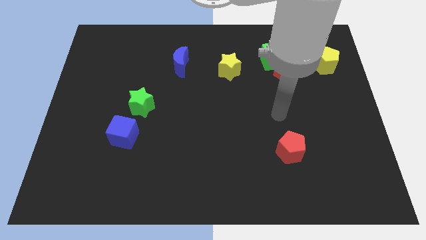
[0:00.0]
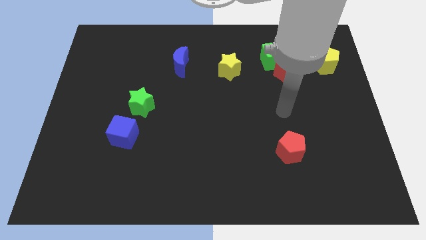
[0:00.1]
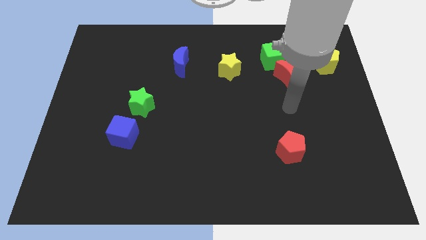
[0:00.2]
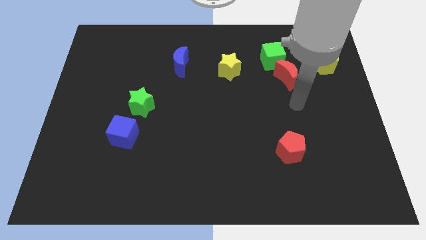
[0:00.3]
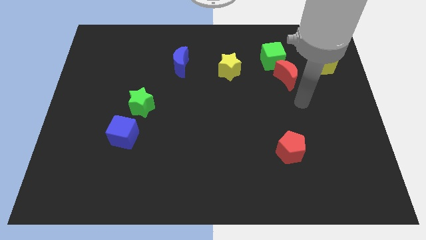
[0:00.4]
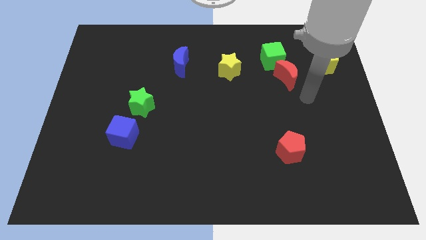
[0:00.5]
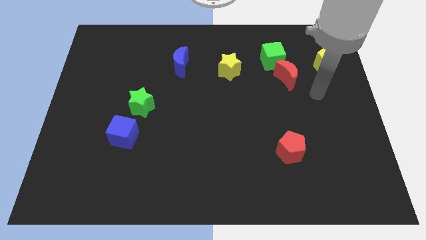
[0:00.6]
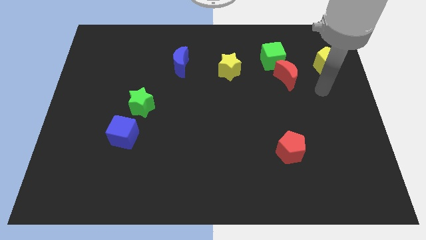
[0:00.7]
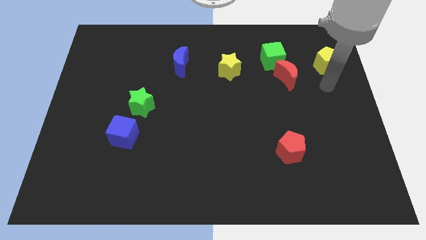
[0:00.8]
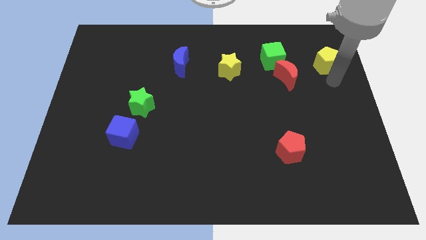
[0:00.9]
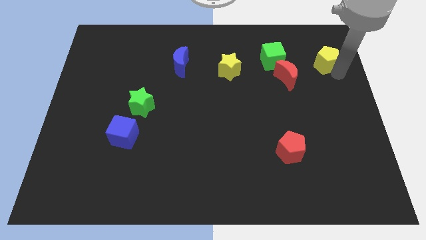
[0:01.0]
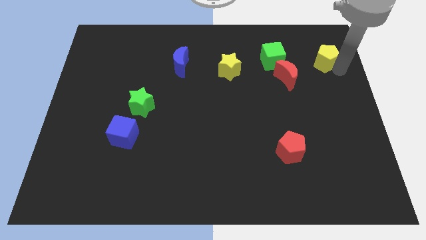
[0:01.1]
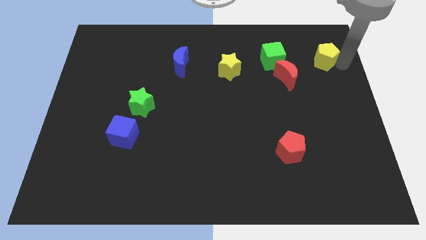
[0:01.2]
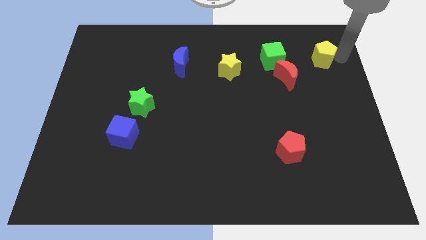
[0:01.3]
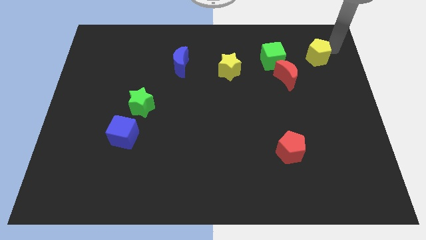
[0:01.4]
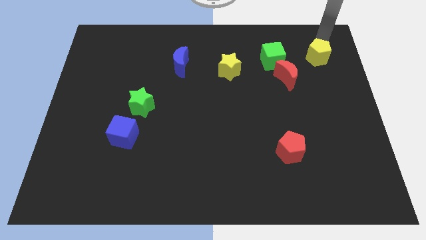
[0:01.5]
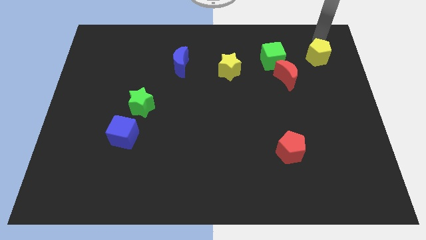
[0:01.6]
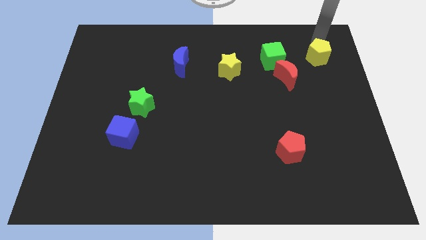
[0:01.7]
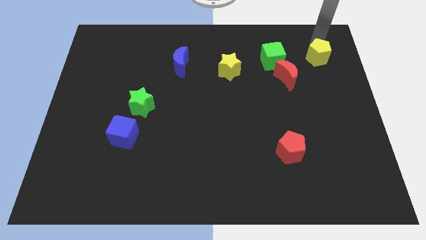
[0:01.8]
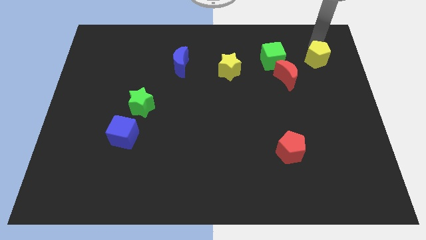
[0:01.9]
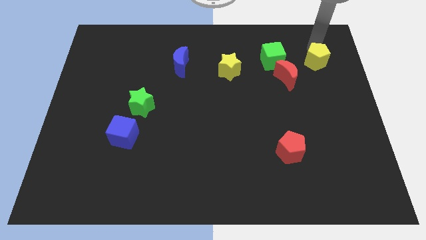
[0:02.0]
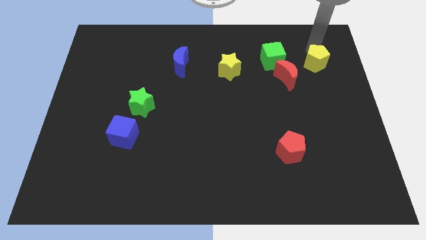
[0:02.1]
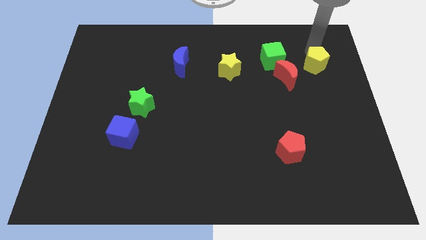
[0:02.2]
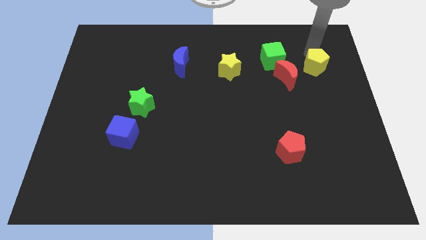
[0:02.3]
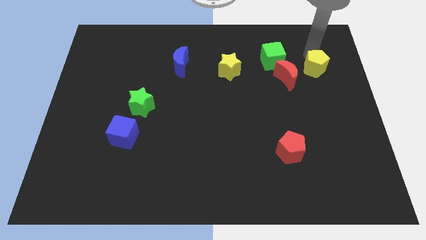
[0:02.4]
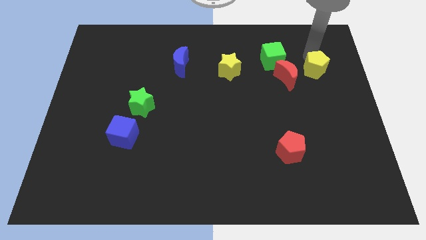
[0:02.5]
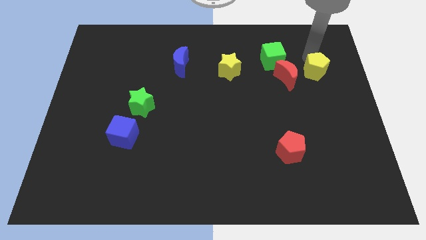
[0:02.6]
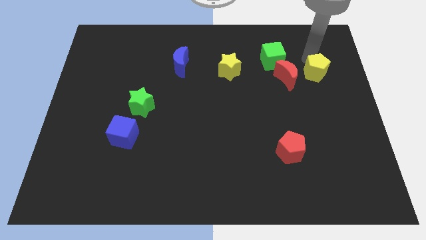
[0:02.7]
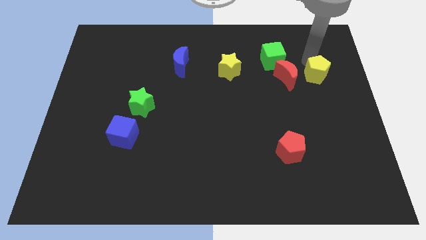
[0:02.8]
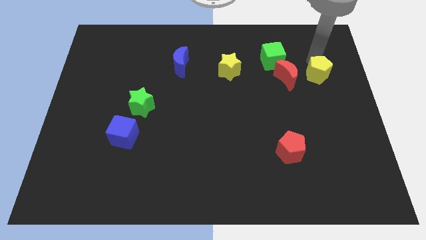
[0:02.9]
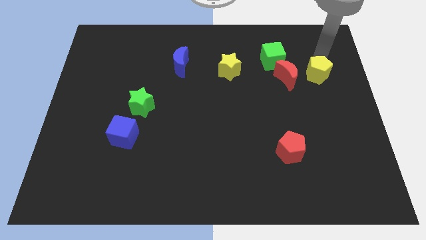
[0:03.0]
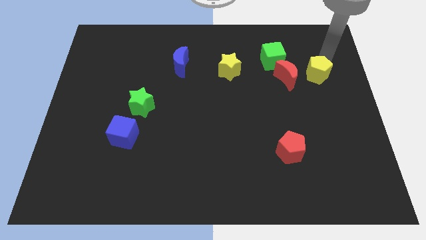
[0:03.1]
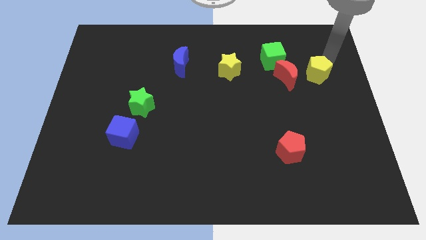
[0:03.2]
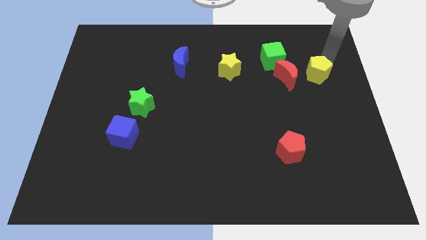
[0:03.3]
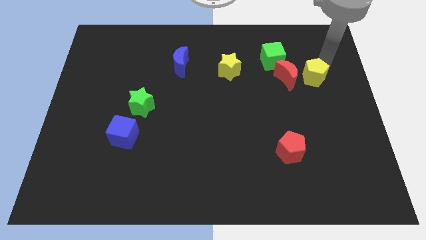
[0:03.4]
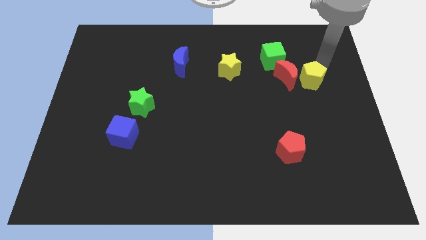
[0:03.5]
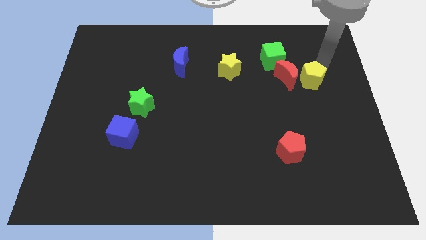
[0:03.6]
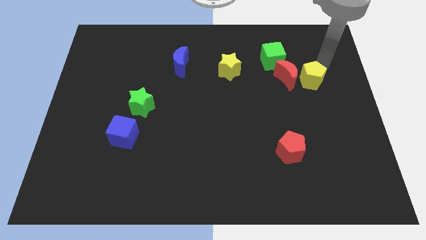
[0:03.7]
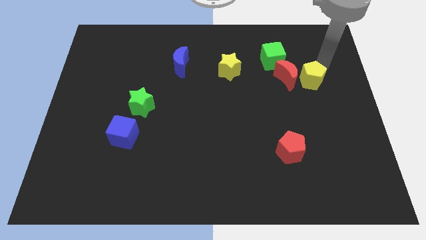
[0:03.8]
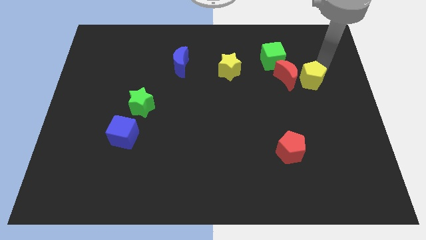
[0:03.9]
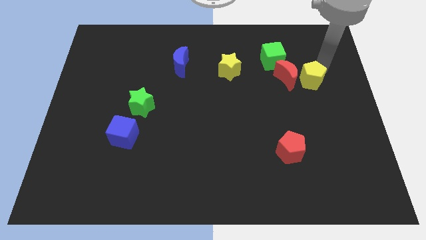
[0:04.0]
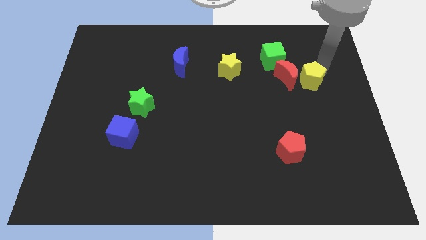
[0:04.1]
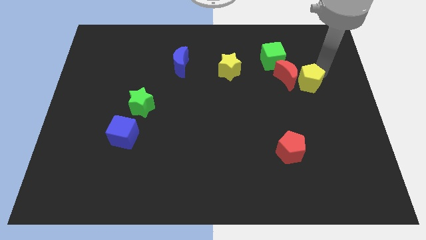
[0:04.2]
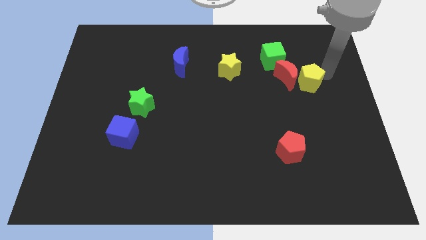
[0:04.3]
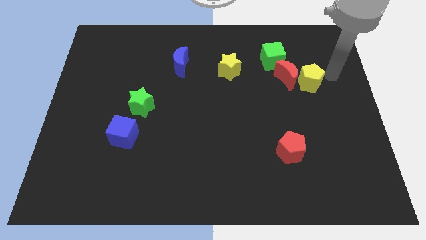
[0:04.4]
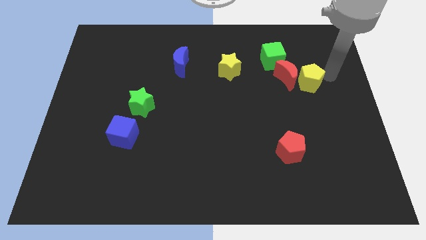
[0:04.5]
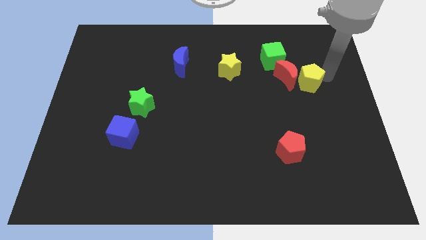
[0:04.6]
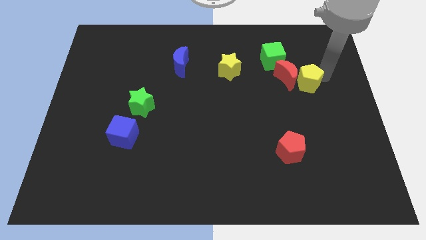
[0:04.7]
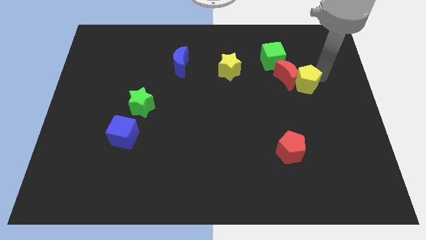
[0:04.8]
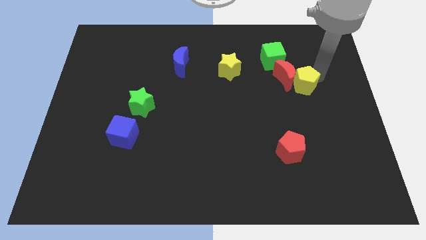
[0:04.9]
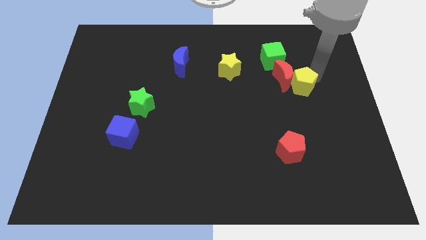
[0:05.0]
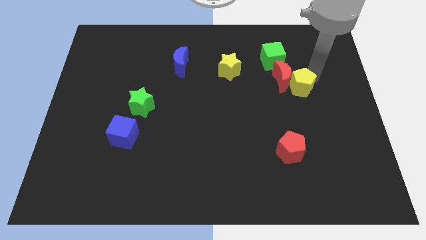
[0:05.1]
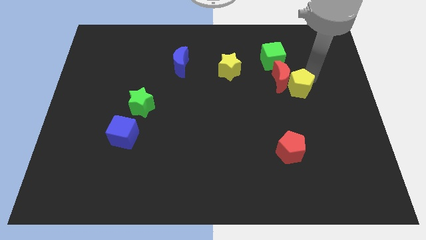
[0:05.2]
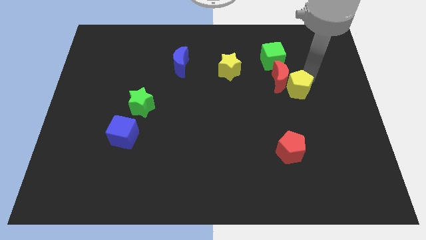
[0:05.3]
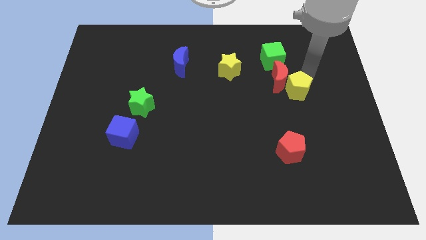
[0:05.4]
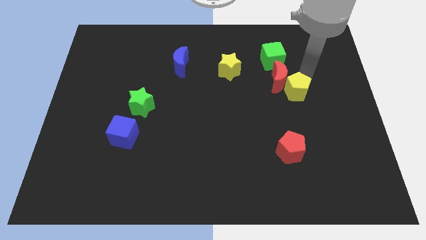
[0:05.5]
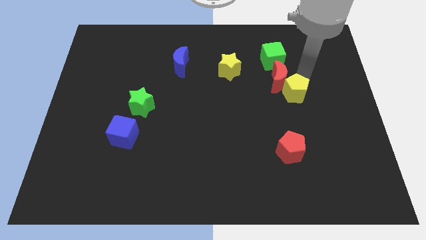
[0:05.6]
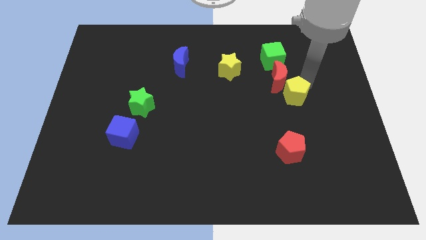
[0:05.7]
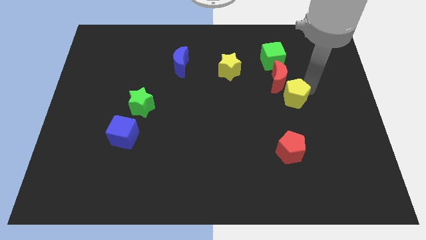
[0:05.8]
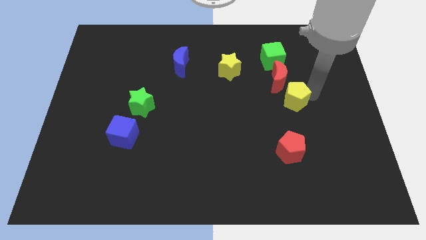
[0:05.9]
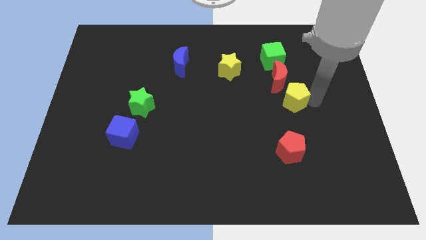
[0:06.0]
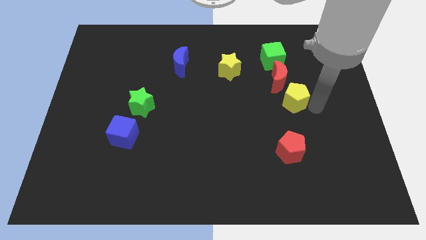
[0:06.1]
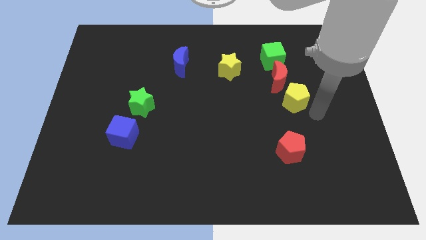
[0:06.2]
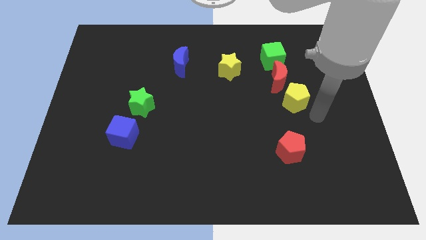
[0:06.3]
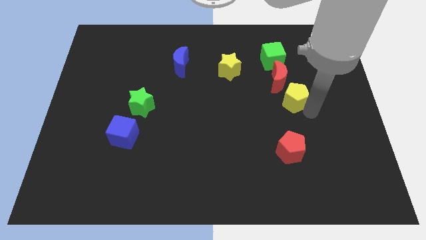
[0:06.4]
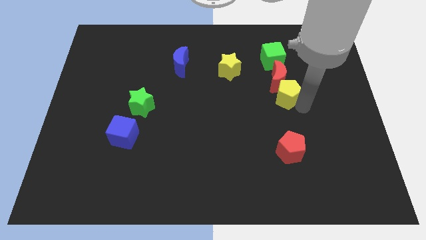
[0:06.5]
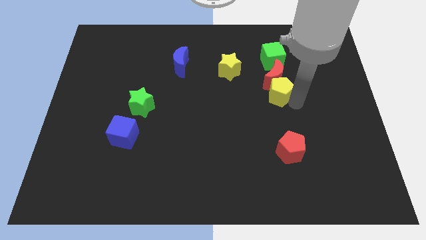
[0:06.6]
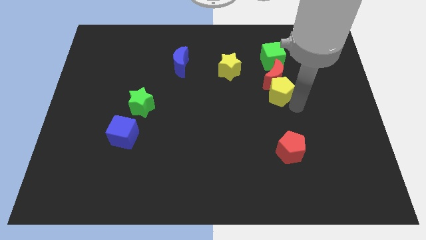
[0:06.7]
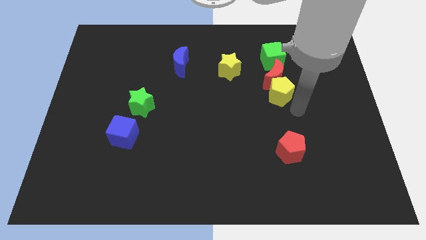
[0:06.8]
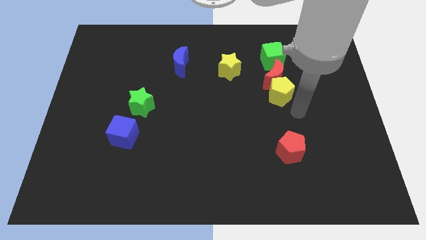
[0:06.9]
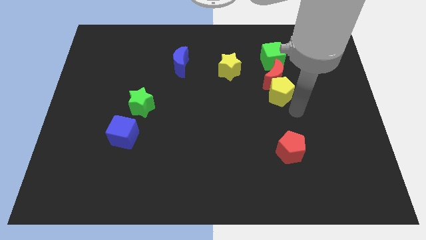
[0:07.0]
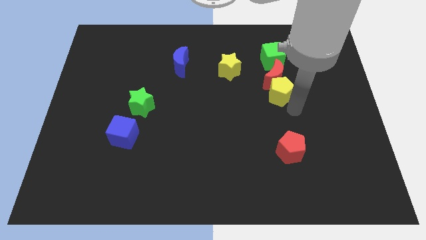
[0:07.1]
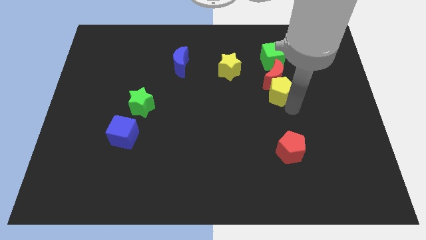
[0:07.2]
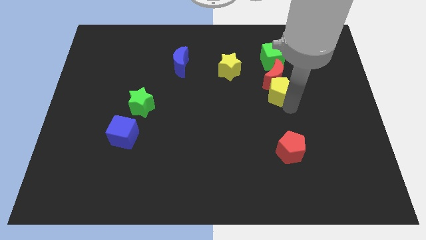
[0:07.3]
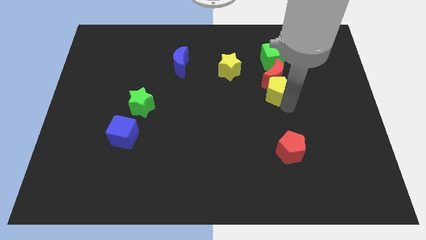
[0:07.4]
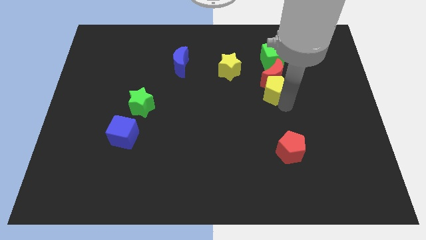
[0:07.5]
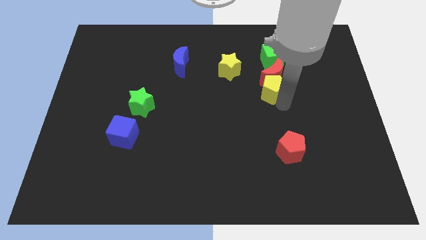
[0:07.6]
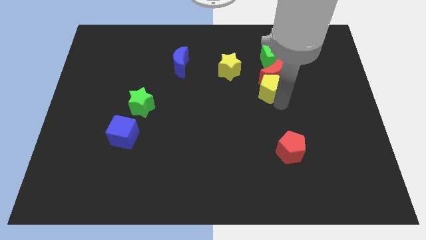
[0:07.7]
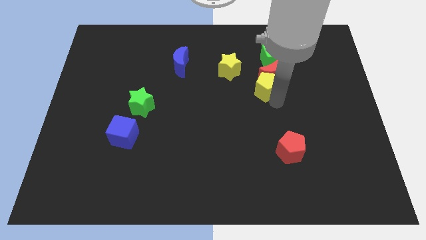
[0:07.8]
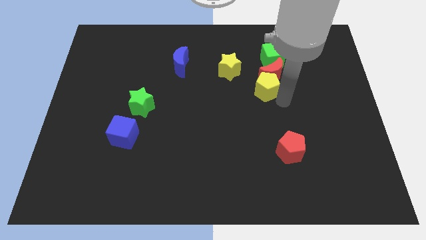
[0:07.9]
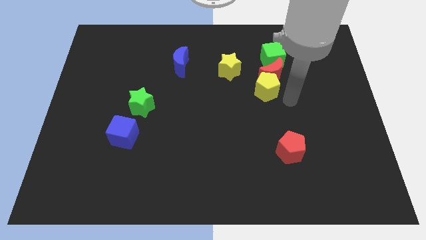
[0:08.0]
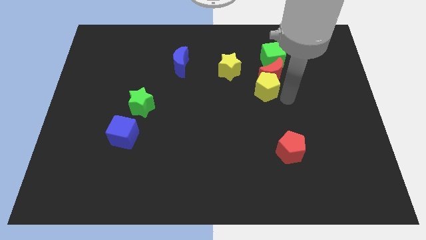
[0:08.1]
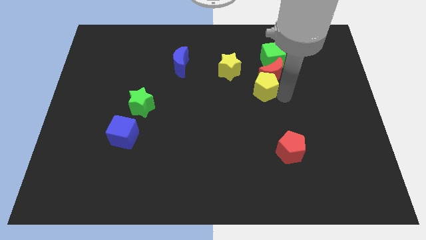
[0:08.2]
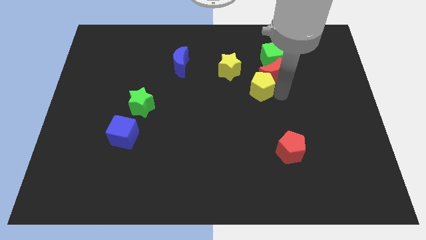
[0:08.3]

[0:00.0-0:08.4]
push the yellow pentagon to the left side of the red moon
